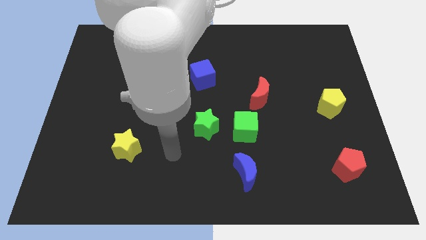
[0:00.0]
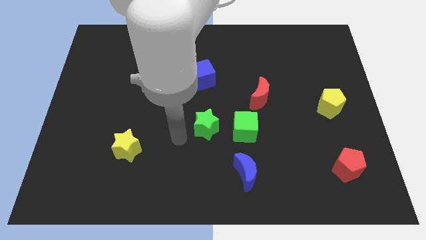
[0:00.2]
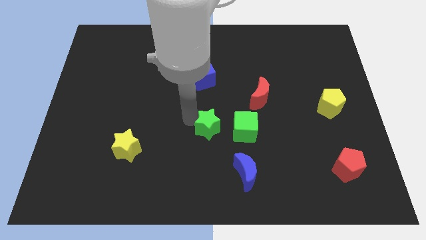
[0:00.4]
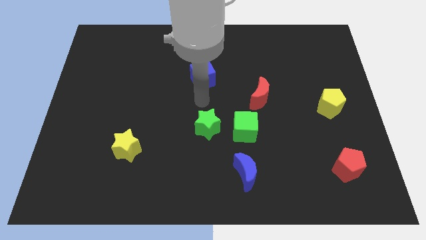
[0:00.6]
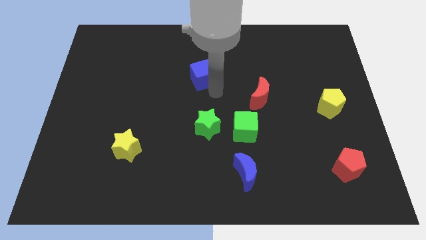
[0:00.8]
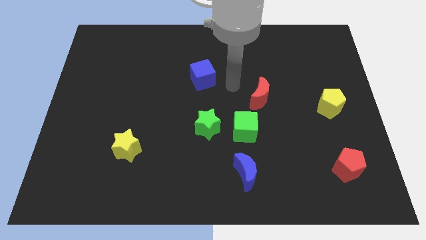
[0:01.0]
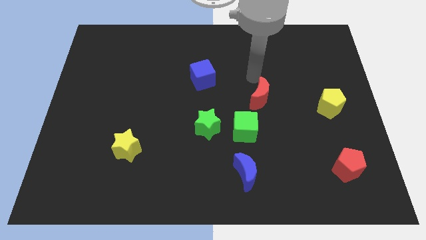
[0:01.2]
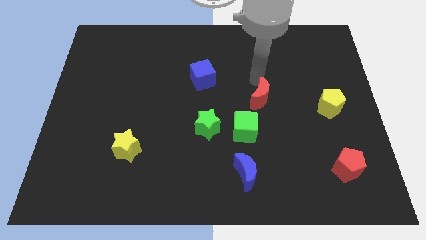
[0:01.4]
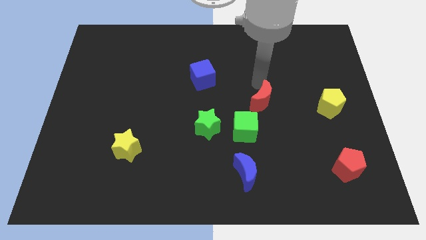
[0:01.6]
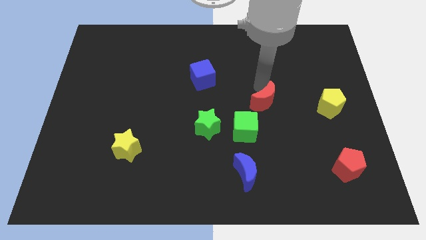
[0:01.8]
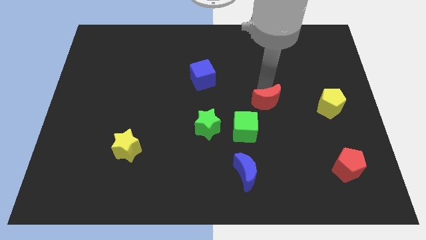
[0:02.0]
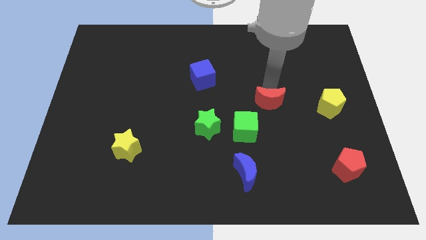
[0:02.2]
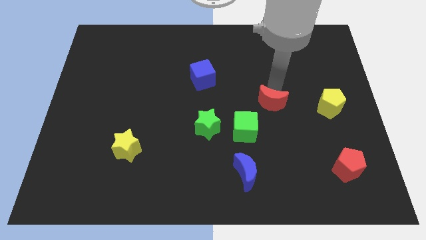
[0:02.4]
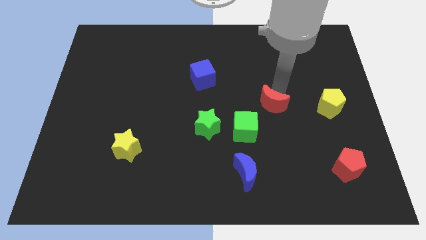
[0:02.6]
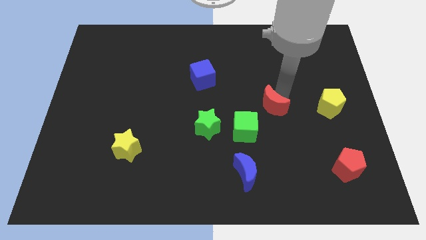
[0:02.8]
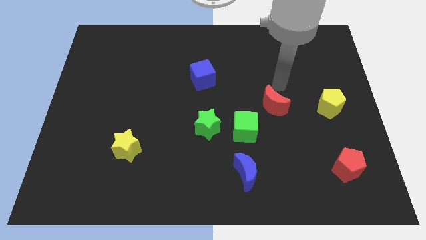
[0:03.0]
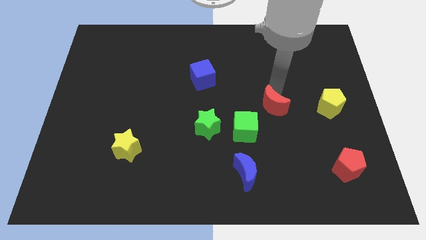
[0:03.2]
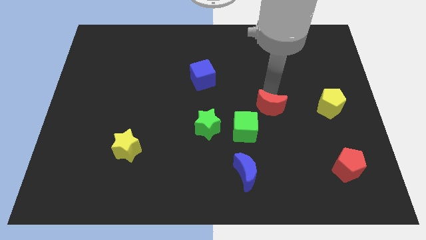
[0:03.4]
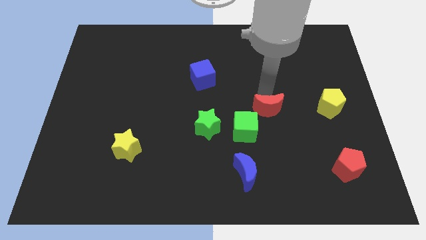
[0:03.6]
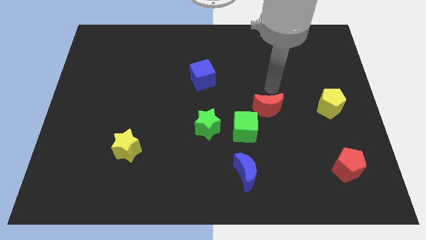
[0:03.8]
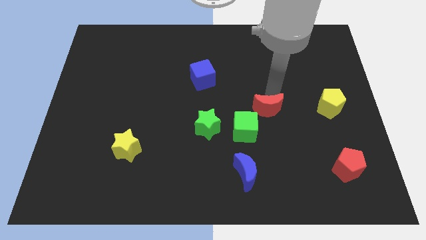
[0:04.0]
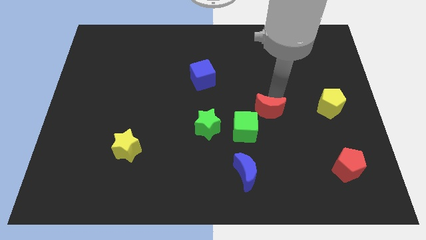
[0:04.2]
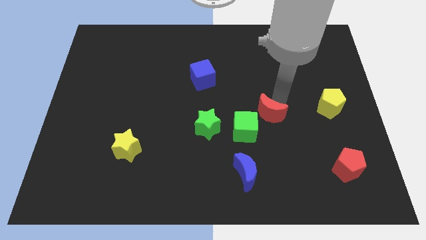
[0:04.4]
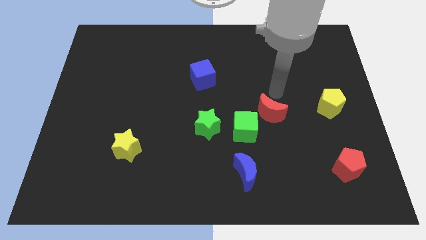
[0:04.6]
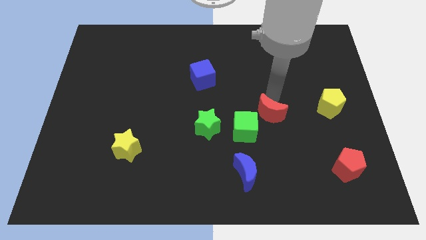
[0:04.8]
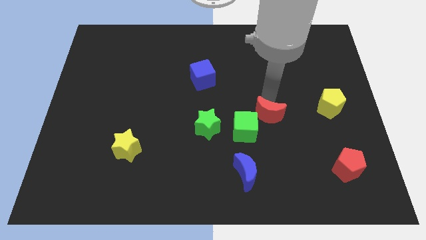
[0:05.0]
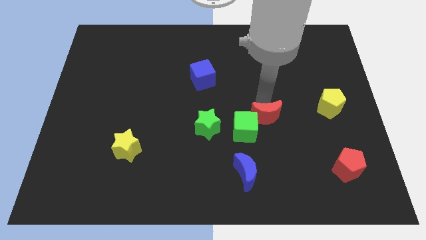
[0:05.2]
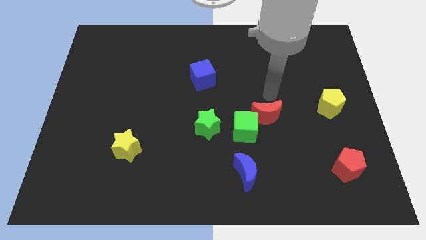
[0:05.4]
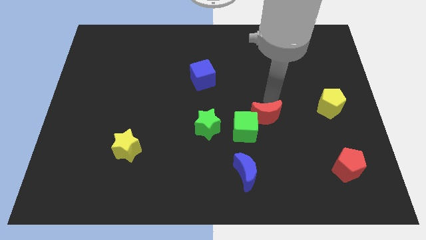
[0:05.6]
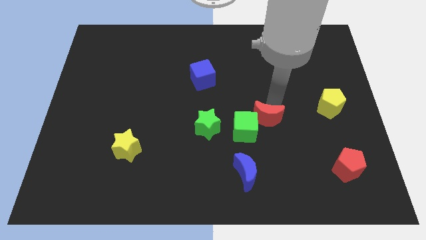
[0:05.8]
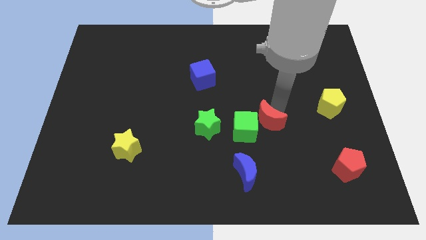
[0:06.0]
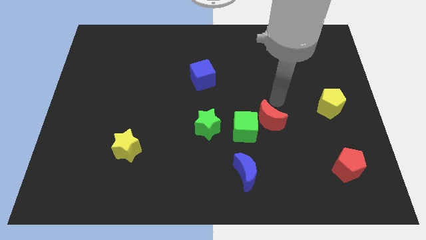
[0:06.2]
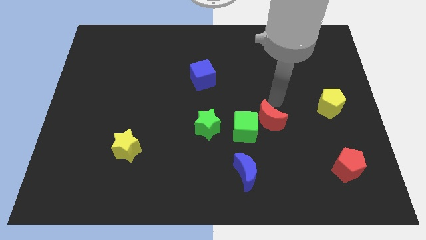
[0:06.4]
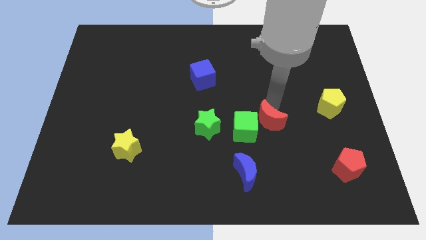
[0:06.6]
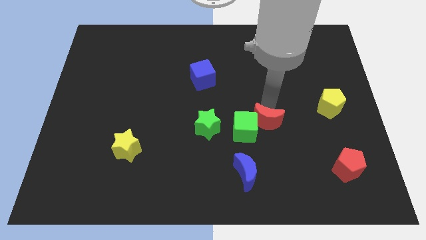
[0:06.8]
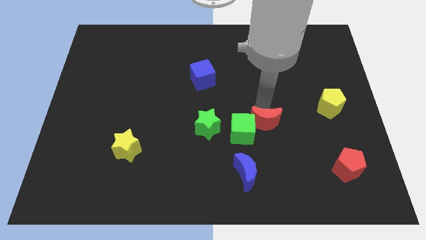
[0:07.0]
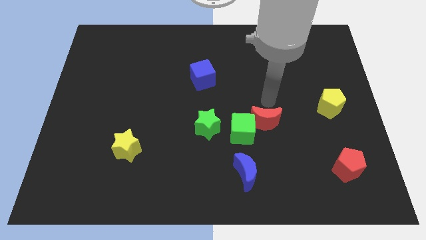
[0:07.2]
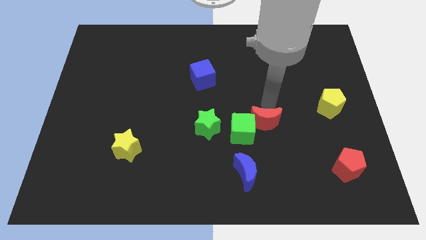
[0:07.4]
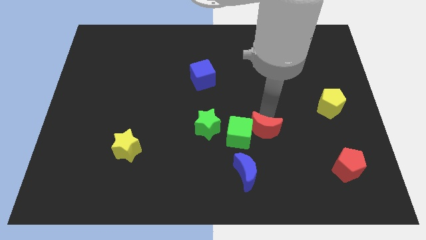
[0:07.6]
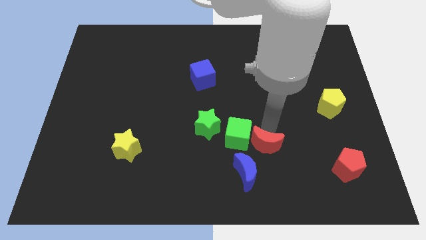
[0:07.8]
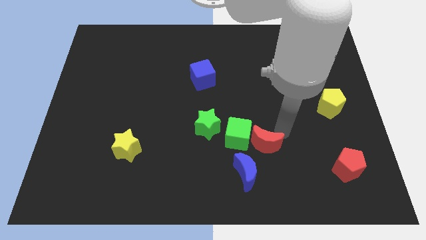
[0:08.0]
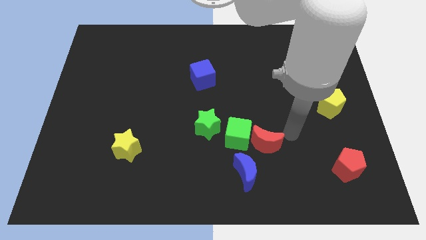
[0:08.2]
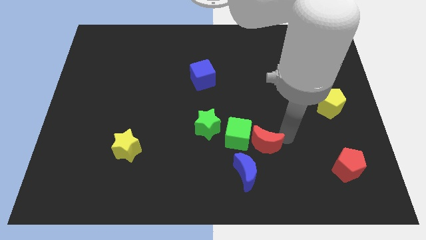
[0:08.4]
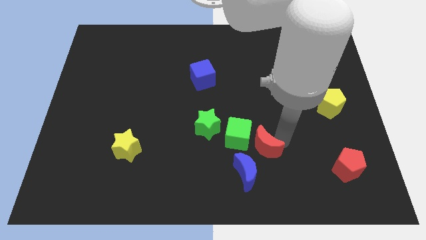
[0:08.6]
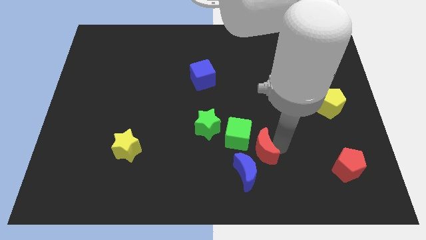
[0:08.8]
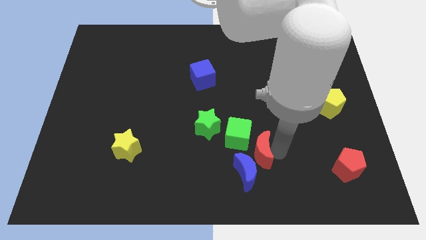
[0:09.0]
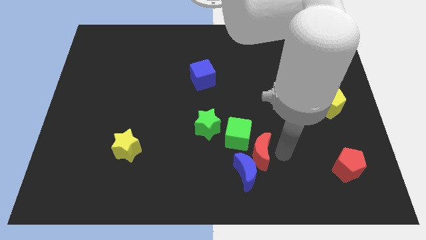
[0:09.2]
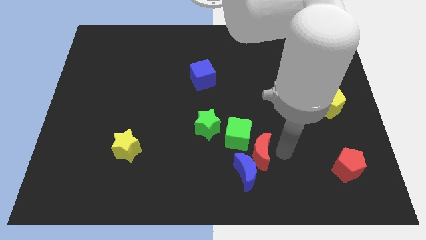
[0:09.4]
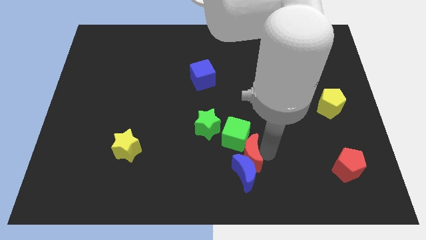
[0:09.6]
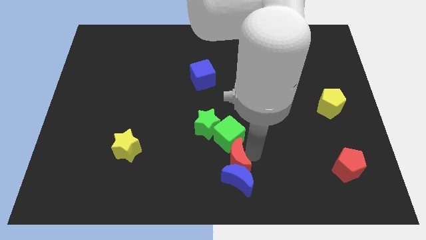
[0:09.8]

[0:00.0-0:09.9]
slide the red moon to the bottom
